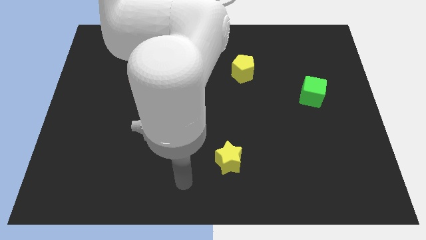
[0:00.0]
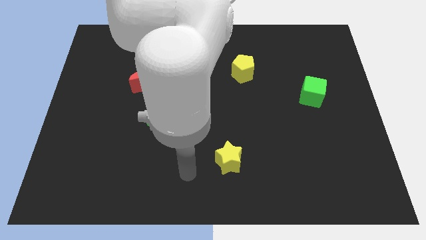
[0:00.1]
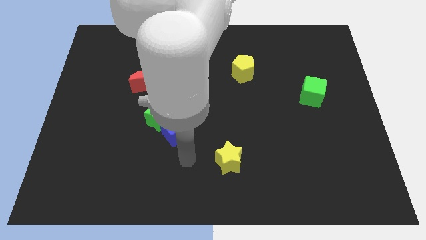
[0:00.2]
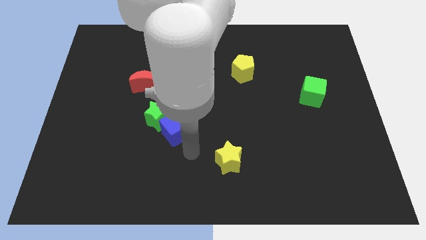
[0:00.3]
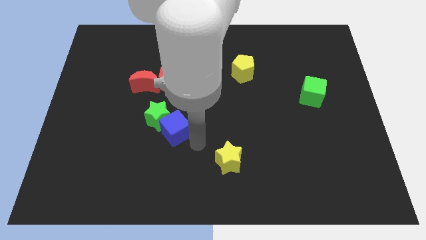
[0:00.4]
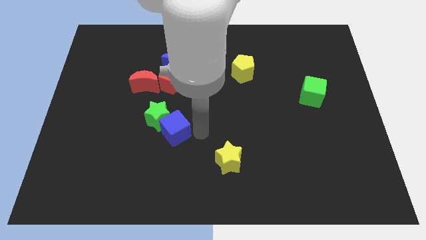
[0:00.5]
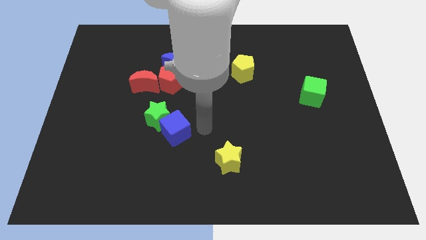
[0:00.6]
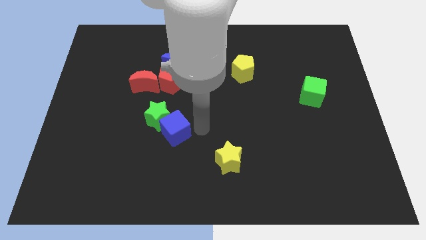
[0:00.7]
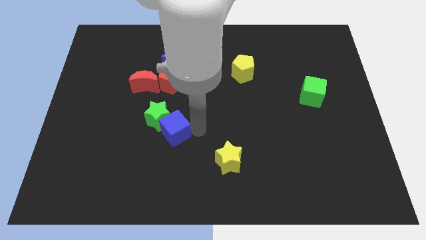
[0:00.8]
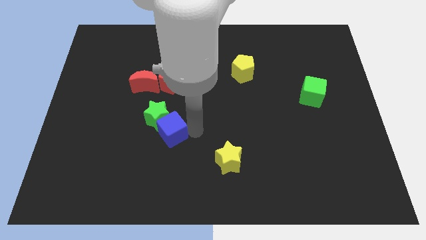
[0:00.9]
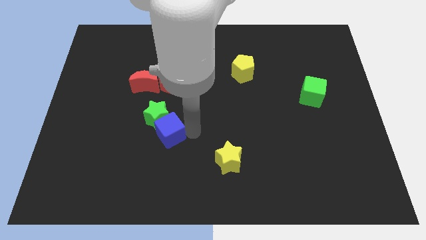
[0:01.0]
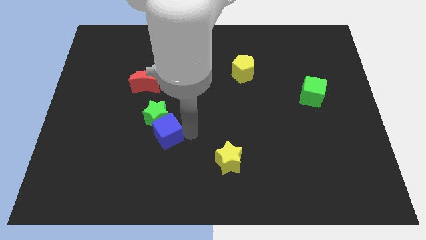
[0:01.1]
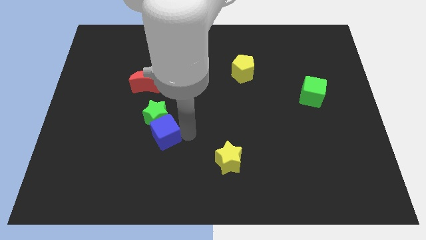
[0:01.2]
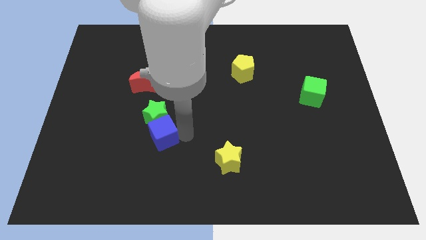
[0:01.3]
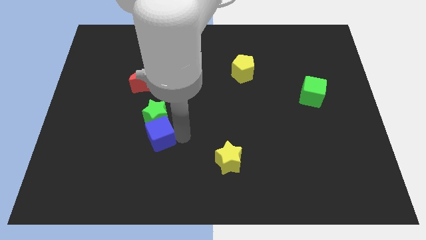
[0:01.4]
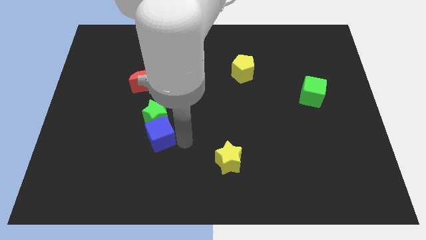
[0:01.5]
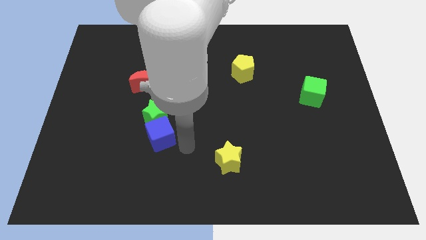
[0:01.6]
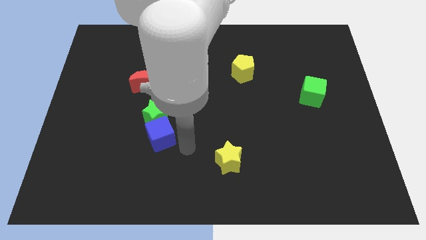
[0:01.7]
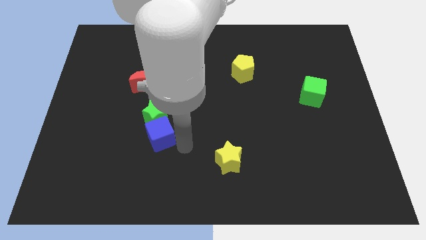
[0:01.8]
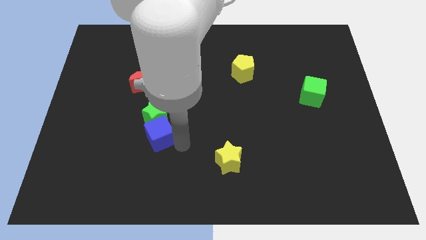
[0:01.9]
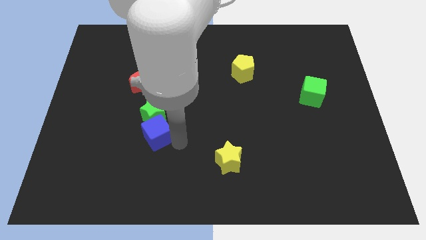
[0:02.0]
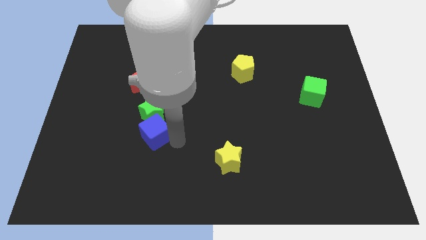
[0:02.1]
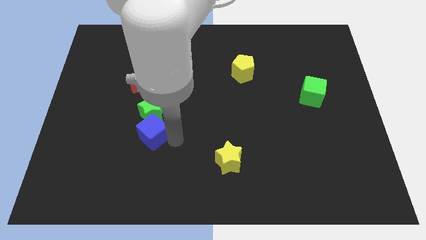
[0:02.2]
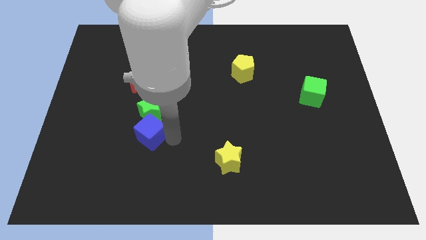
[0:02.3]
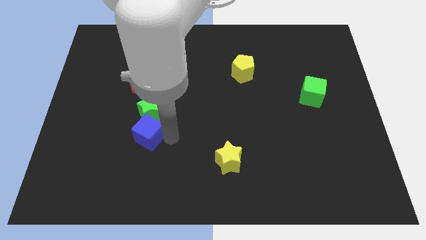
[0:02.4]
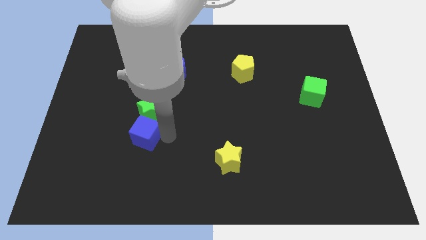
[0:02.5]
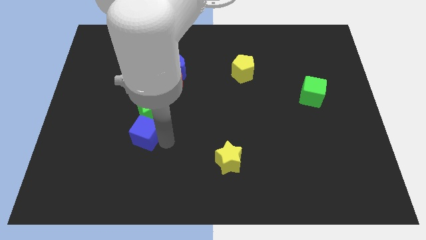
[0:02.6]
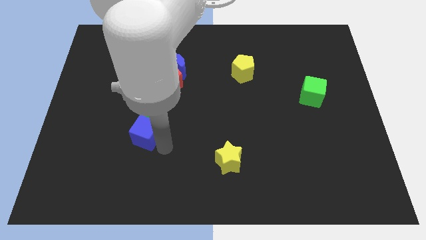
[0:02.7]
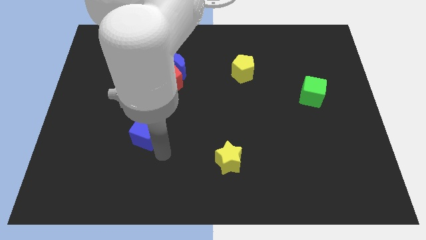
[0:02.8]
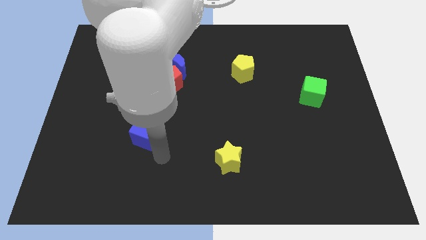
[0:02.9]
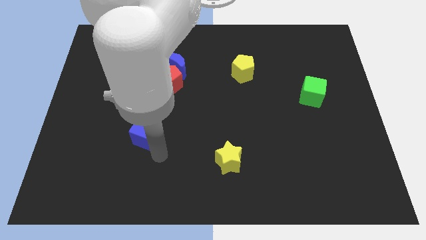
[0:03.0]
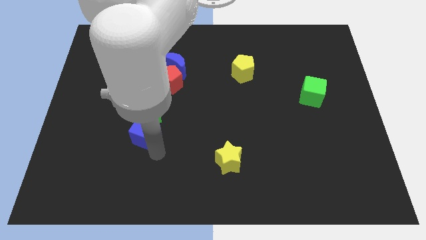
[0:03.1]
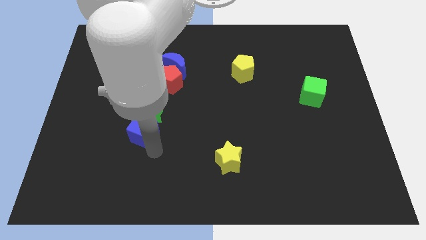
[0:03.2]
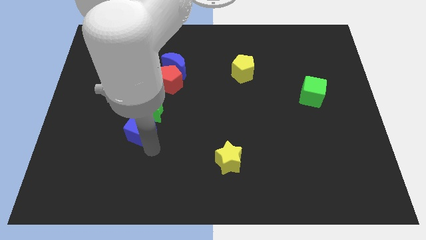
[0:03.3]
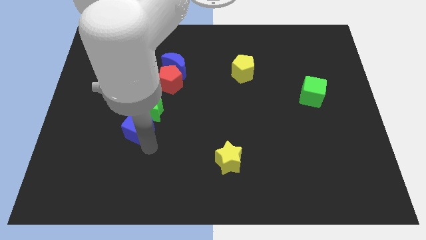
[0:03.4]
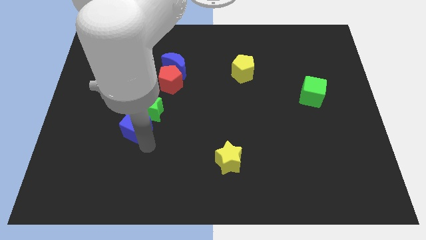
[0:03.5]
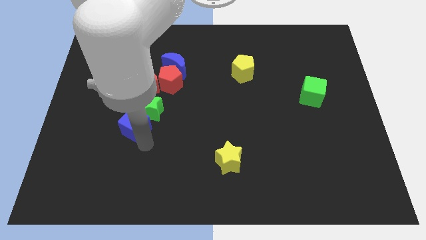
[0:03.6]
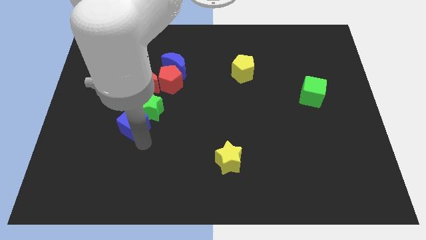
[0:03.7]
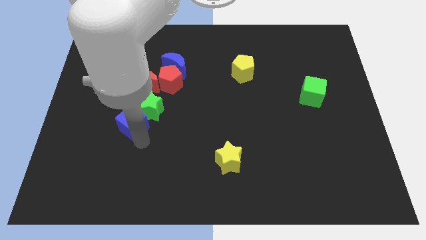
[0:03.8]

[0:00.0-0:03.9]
push the blue cube somewhat up and then left

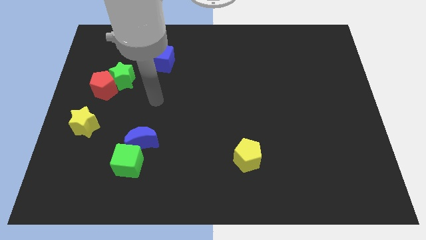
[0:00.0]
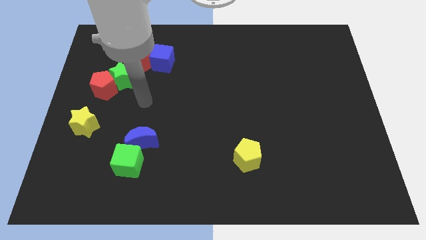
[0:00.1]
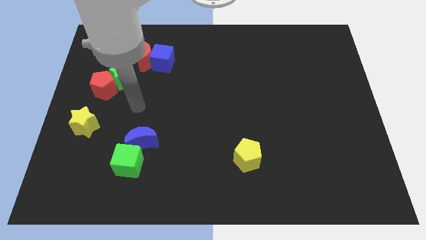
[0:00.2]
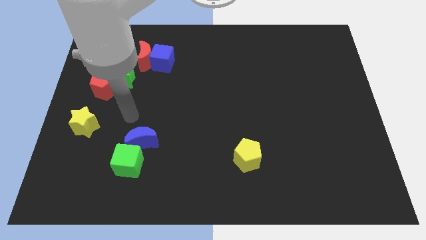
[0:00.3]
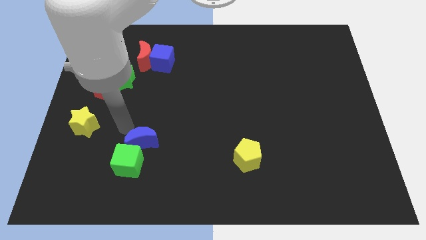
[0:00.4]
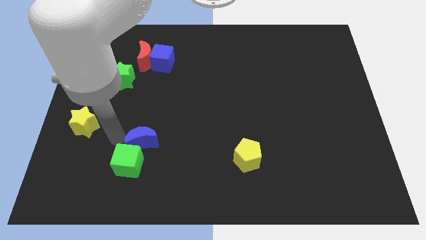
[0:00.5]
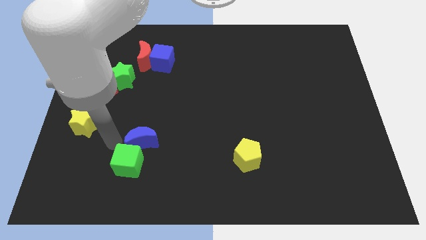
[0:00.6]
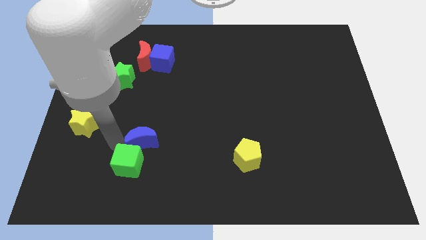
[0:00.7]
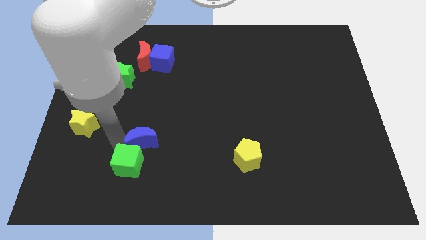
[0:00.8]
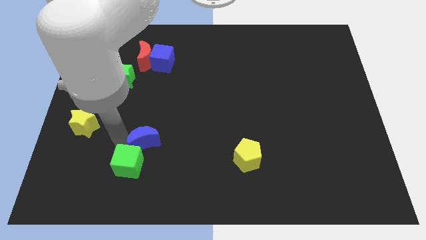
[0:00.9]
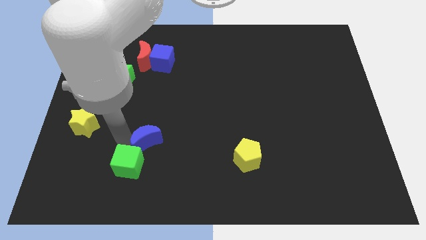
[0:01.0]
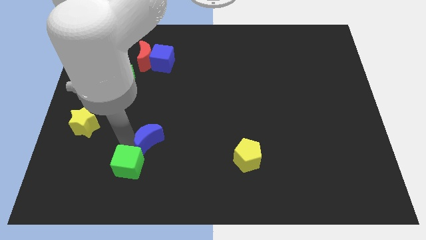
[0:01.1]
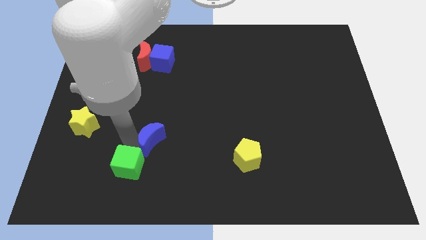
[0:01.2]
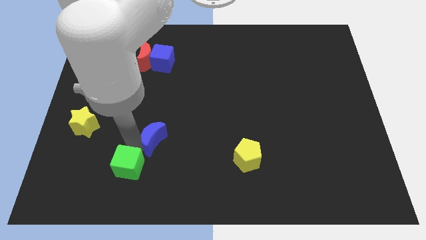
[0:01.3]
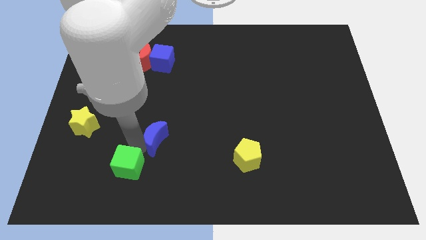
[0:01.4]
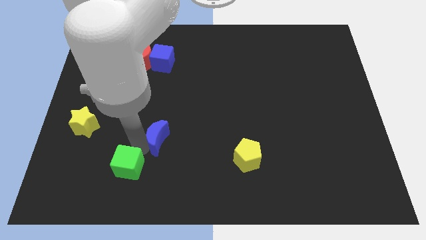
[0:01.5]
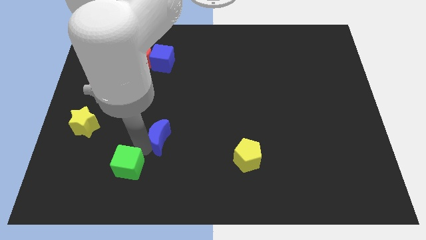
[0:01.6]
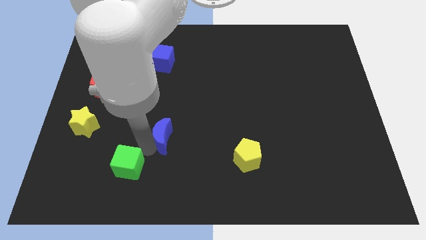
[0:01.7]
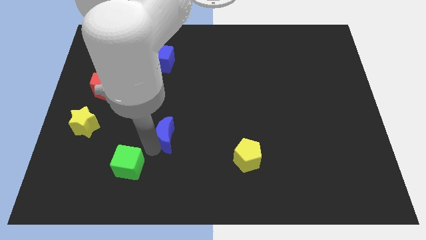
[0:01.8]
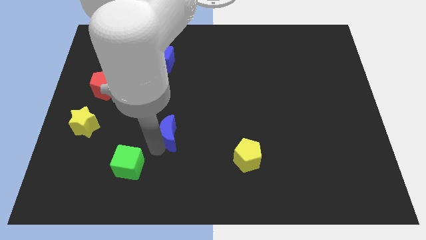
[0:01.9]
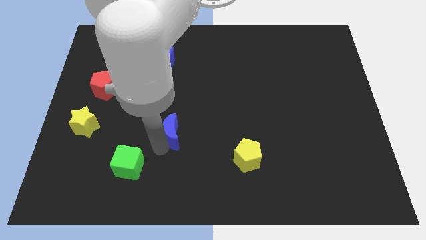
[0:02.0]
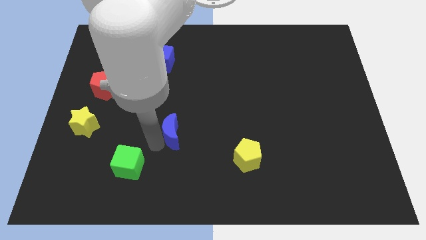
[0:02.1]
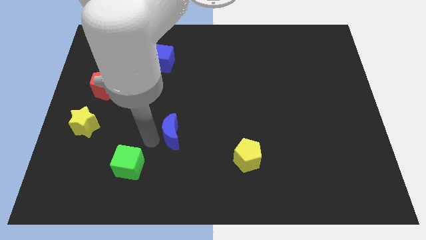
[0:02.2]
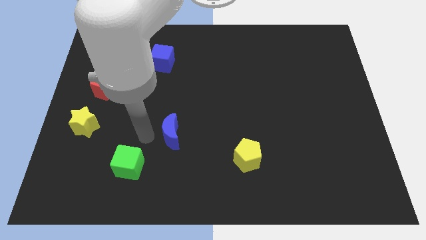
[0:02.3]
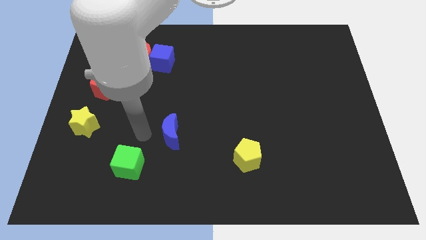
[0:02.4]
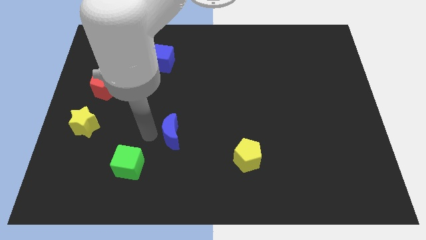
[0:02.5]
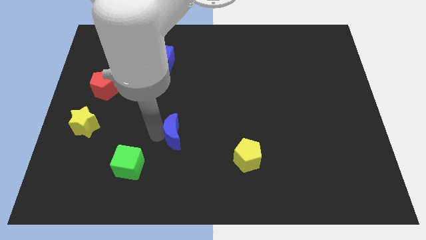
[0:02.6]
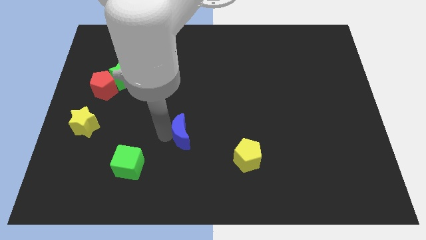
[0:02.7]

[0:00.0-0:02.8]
move the blue moon right a little bit

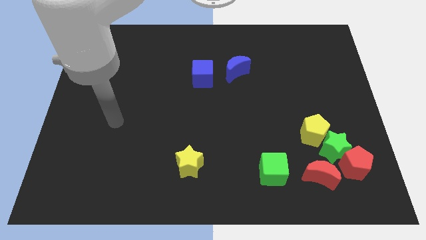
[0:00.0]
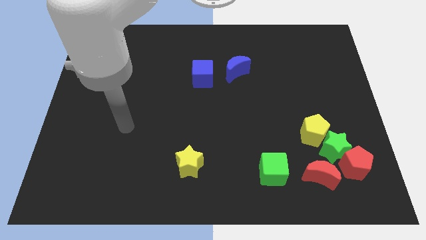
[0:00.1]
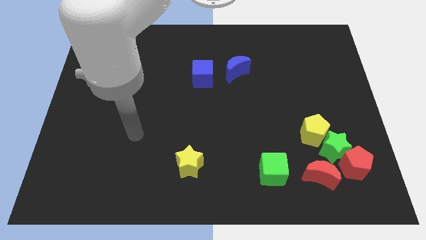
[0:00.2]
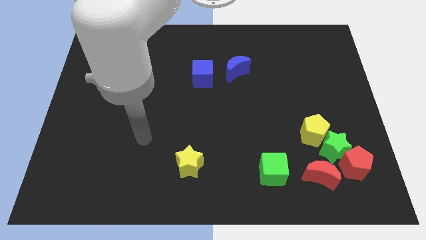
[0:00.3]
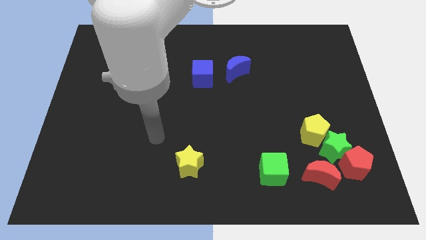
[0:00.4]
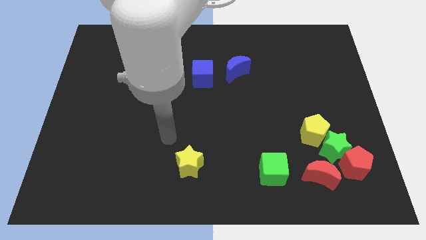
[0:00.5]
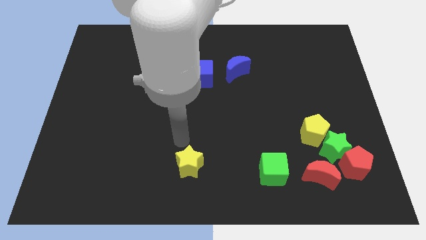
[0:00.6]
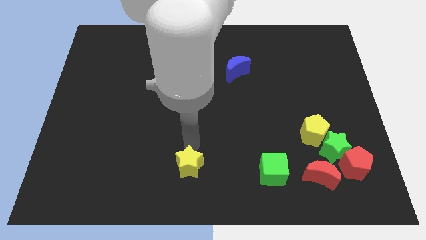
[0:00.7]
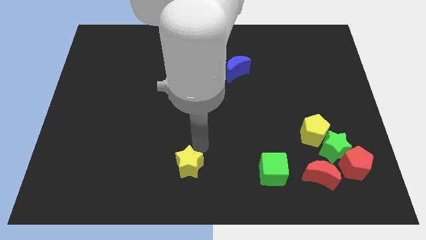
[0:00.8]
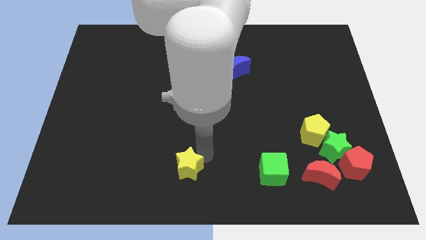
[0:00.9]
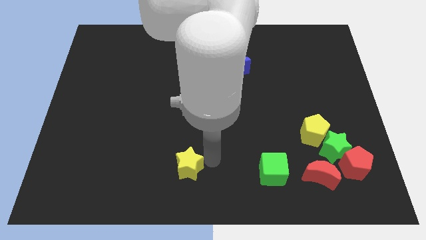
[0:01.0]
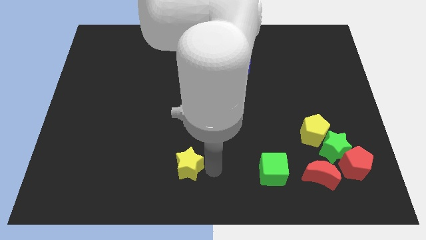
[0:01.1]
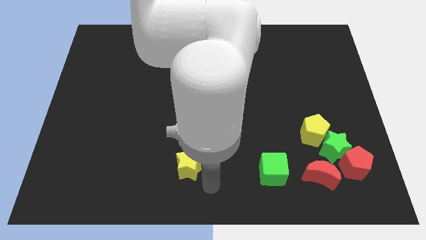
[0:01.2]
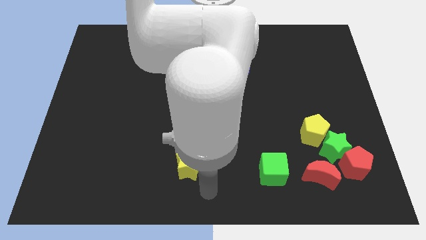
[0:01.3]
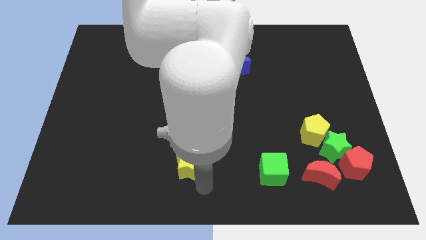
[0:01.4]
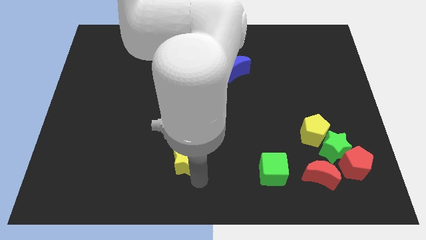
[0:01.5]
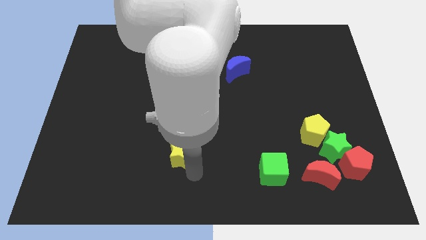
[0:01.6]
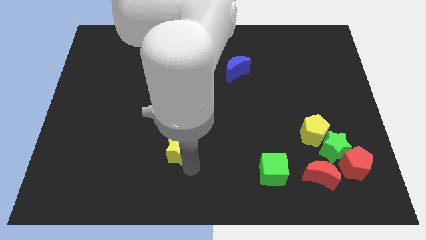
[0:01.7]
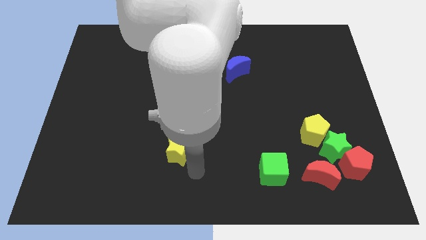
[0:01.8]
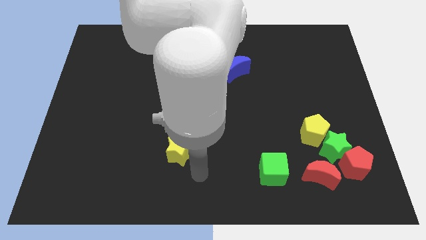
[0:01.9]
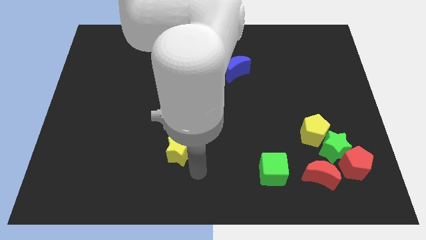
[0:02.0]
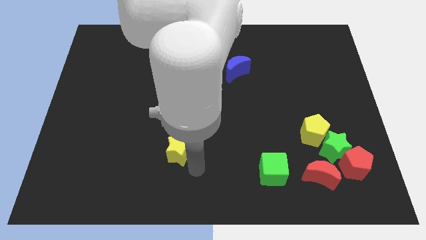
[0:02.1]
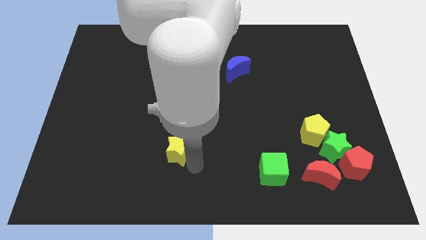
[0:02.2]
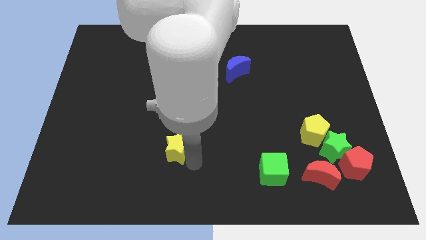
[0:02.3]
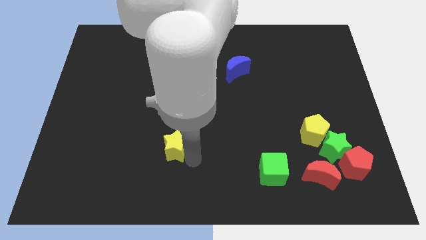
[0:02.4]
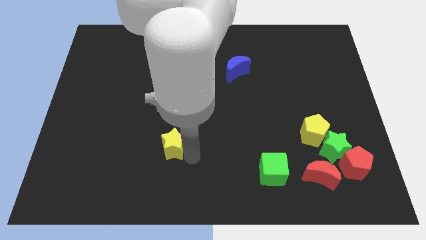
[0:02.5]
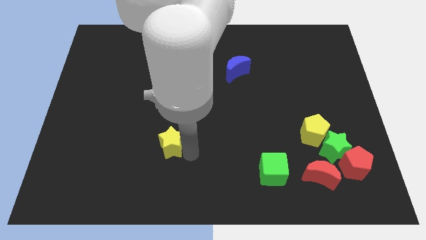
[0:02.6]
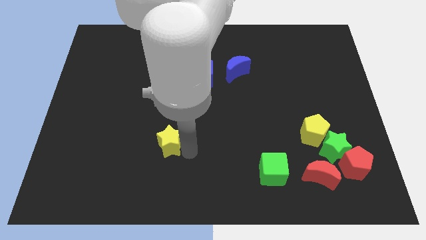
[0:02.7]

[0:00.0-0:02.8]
move the yellow star somewhat up and to the left diagonally
